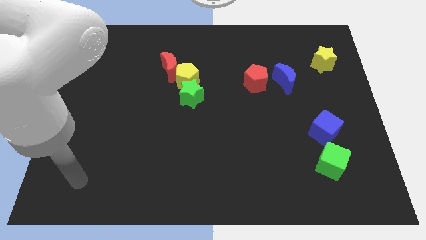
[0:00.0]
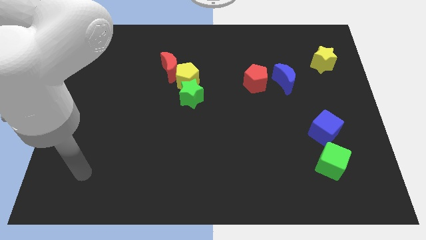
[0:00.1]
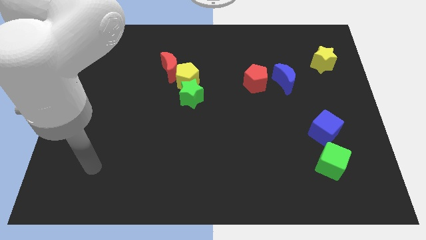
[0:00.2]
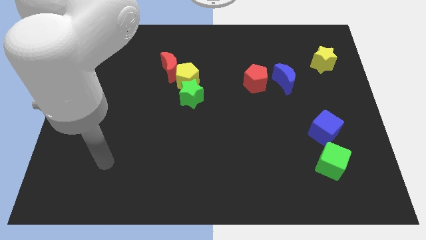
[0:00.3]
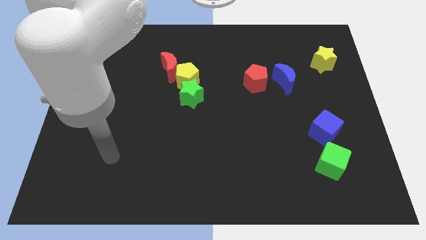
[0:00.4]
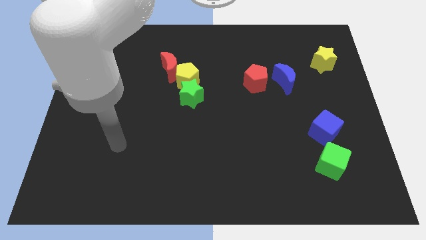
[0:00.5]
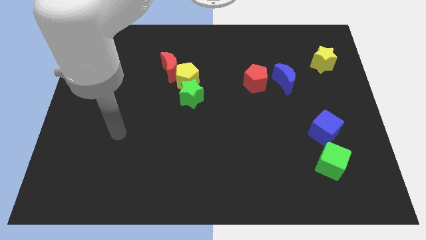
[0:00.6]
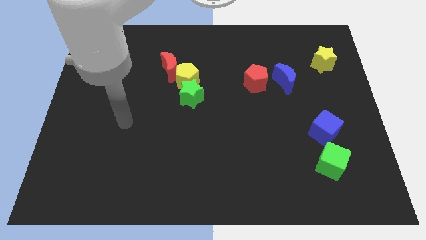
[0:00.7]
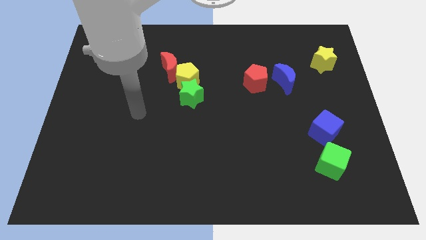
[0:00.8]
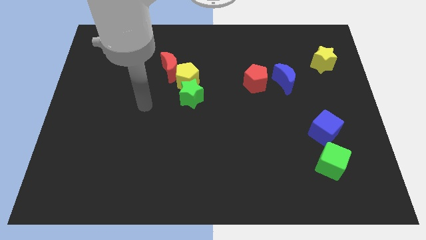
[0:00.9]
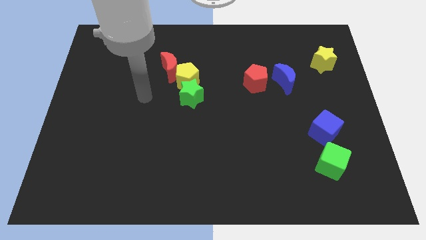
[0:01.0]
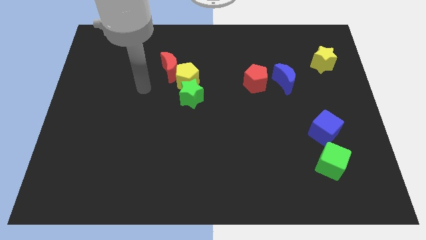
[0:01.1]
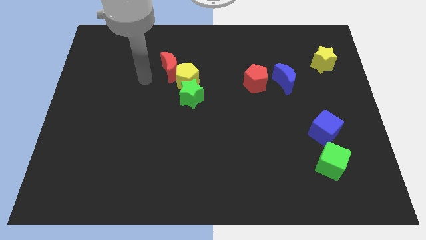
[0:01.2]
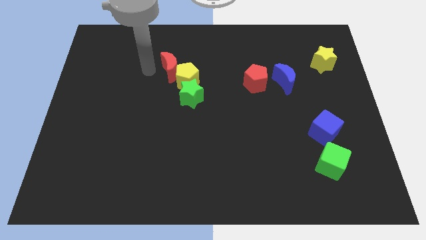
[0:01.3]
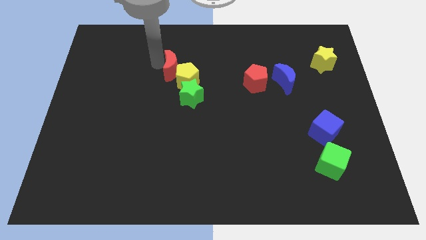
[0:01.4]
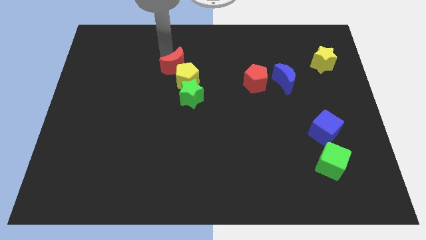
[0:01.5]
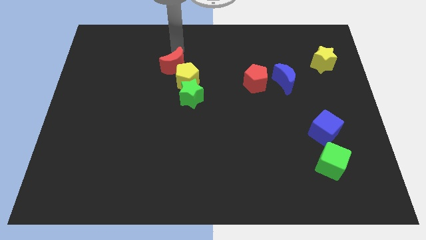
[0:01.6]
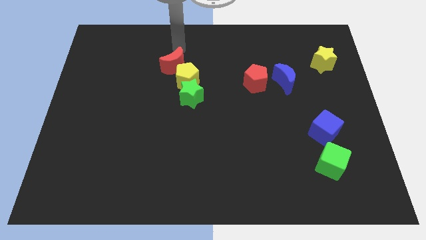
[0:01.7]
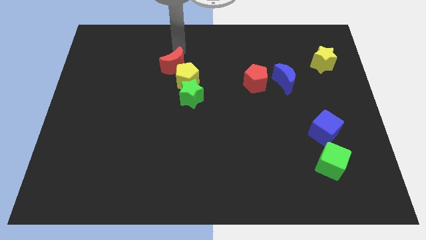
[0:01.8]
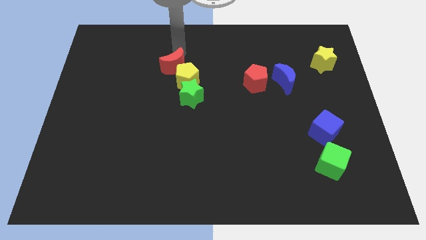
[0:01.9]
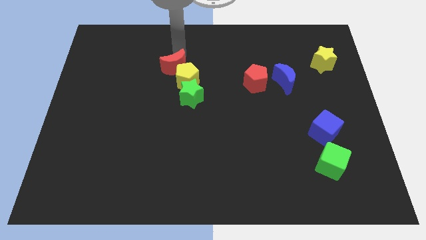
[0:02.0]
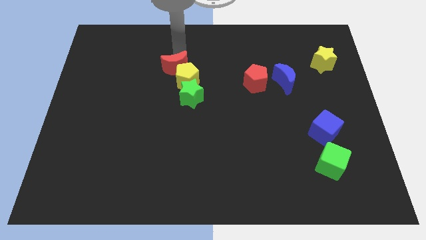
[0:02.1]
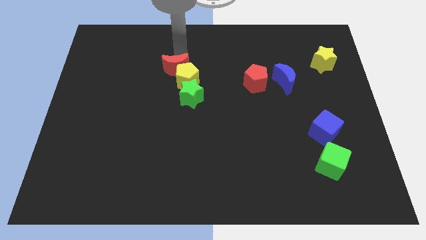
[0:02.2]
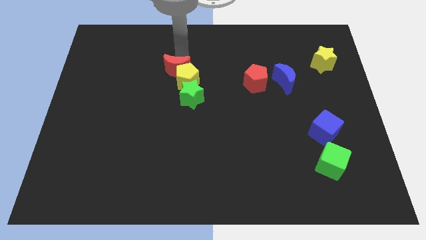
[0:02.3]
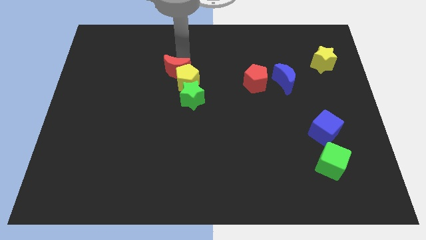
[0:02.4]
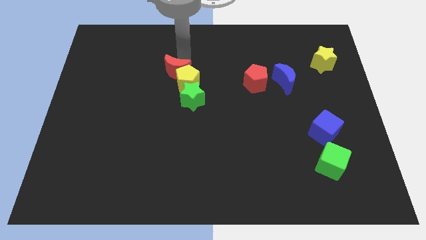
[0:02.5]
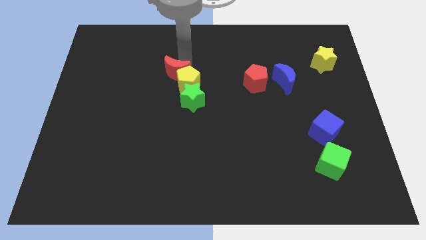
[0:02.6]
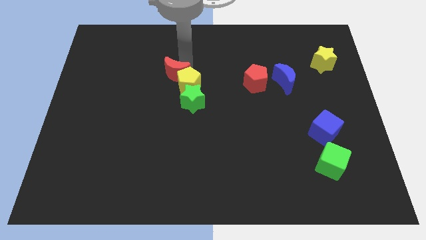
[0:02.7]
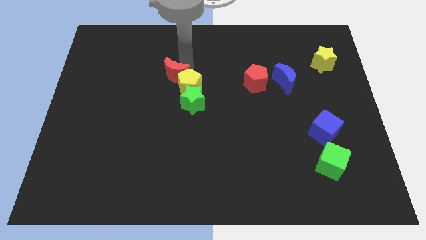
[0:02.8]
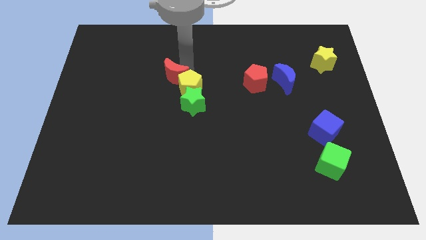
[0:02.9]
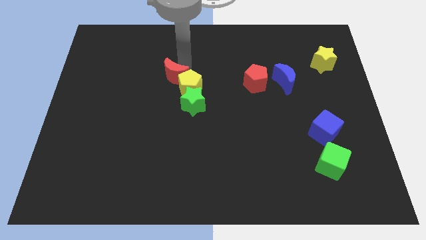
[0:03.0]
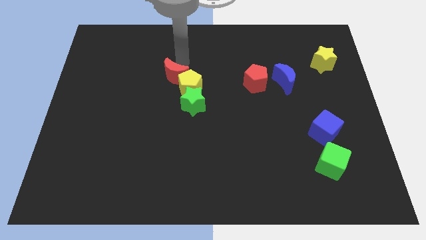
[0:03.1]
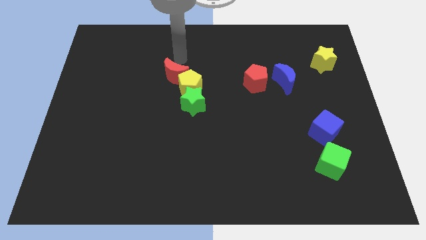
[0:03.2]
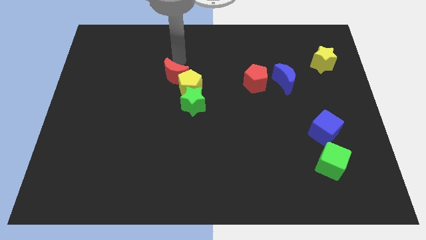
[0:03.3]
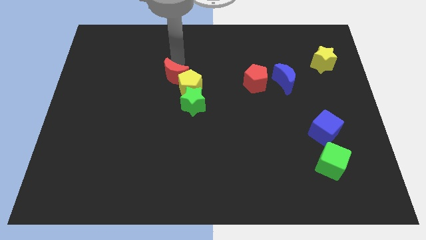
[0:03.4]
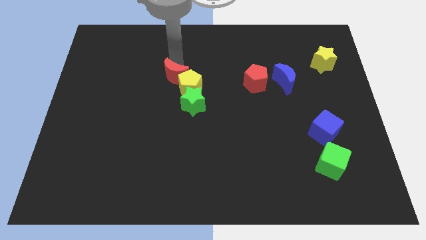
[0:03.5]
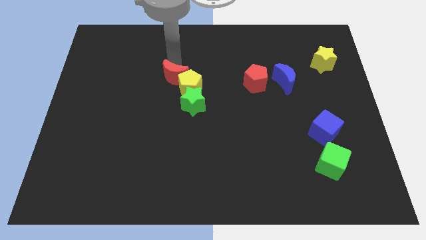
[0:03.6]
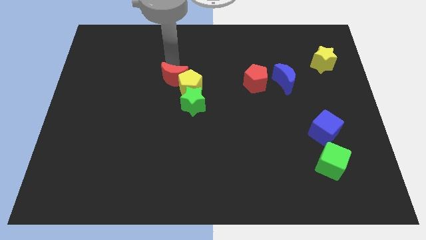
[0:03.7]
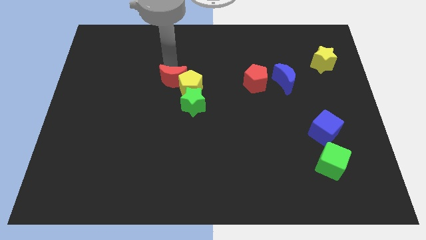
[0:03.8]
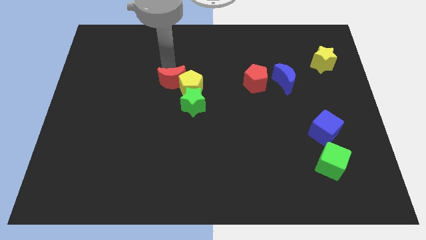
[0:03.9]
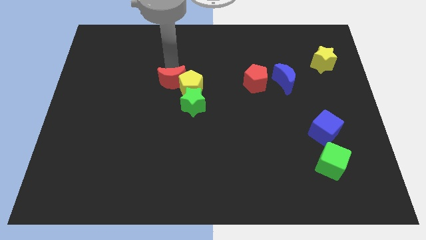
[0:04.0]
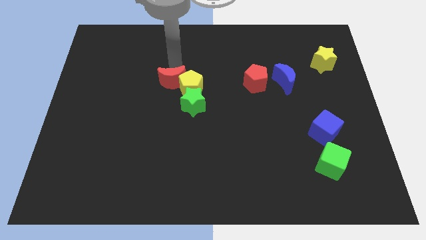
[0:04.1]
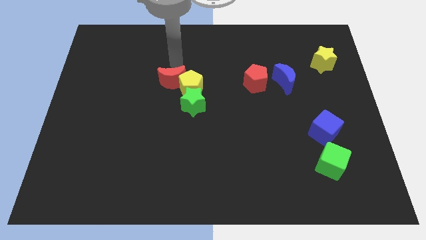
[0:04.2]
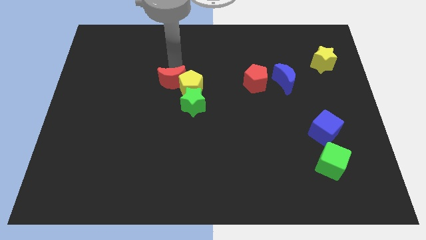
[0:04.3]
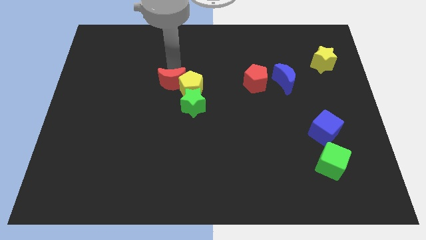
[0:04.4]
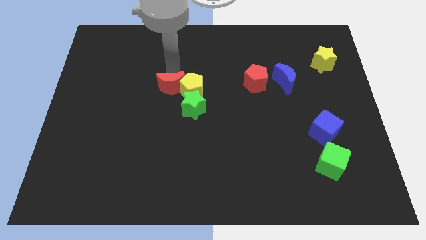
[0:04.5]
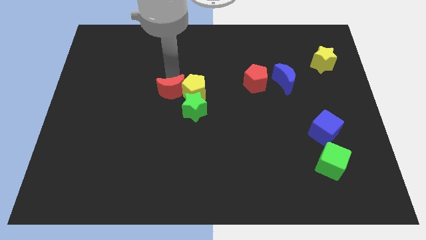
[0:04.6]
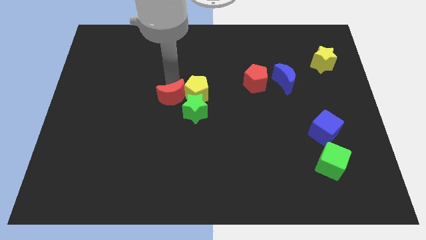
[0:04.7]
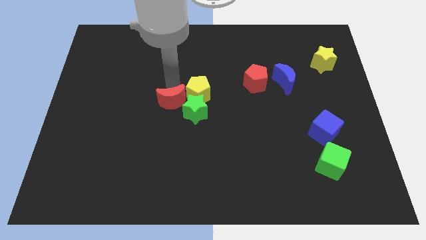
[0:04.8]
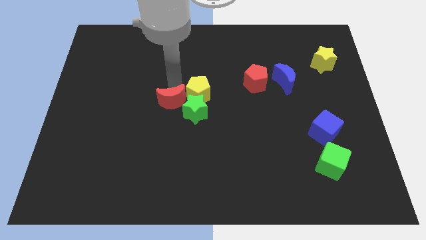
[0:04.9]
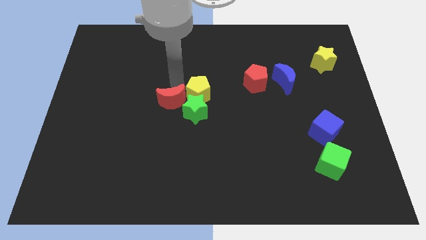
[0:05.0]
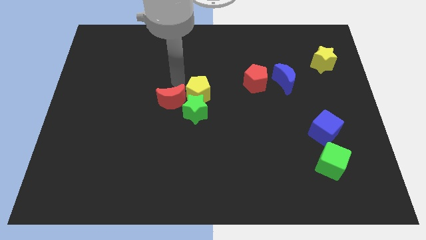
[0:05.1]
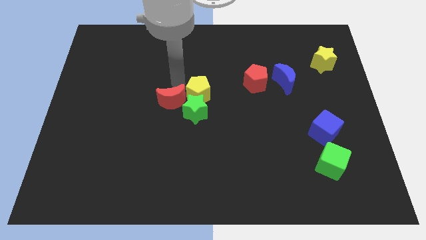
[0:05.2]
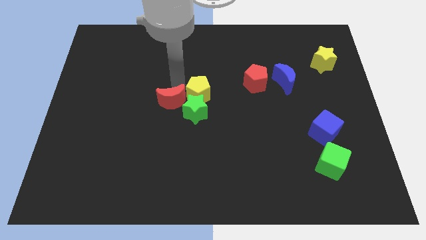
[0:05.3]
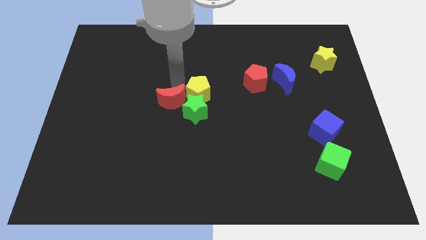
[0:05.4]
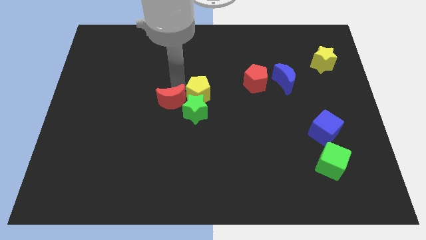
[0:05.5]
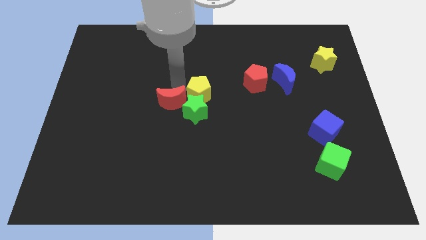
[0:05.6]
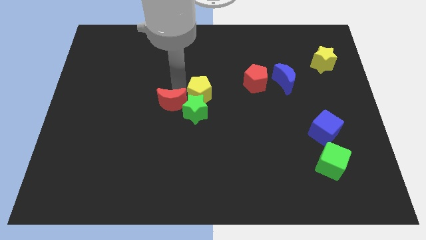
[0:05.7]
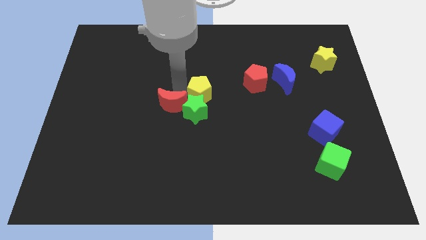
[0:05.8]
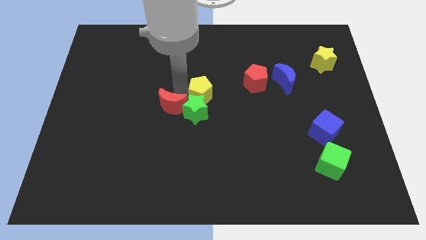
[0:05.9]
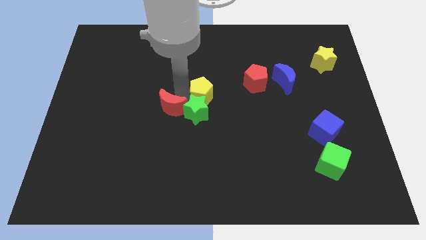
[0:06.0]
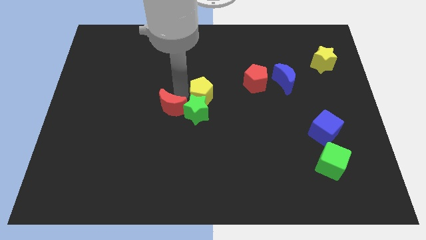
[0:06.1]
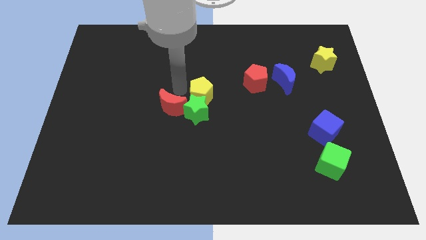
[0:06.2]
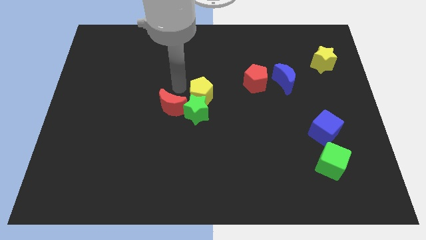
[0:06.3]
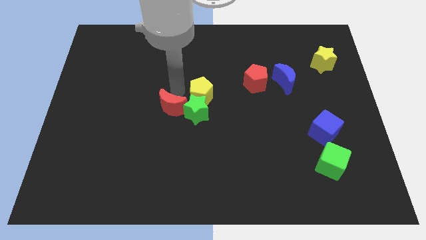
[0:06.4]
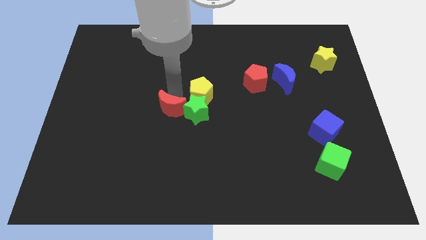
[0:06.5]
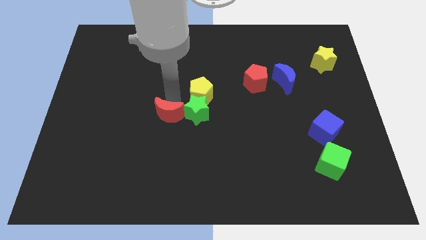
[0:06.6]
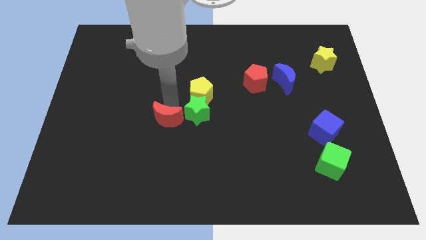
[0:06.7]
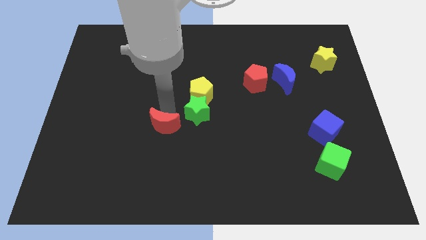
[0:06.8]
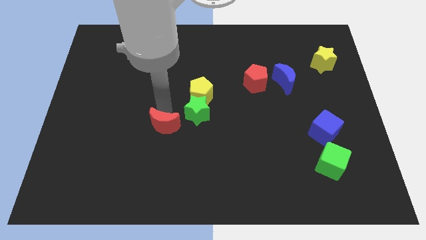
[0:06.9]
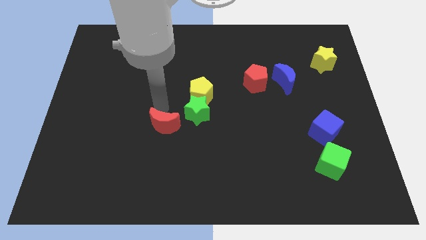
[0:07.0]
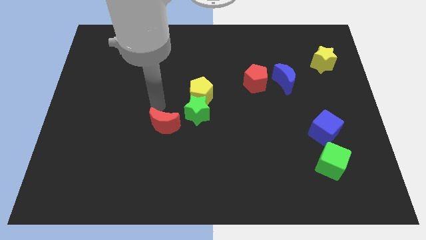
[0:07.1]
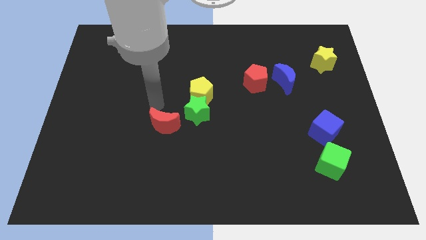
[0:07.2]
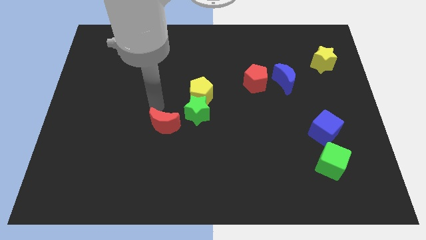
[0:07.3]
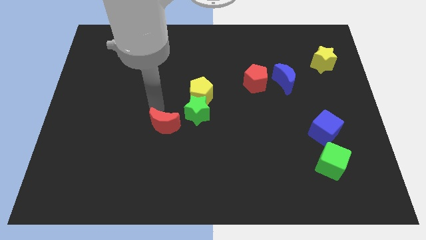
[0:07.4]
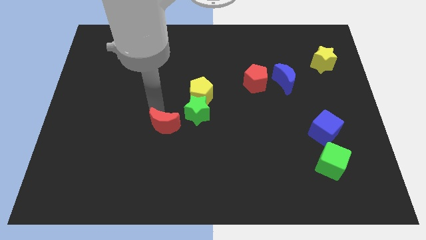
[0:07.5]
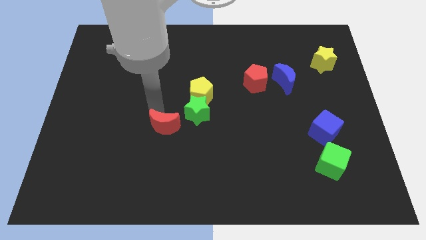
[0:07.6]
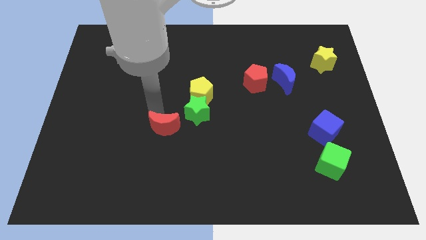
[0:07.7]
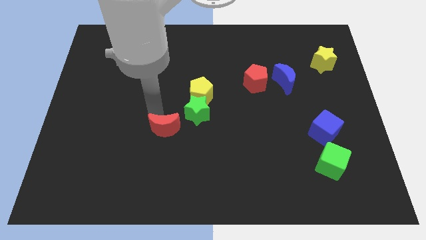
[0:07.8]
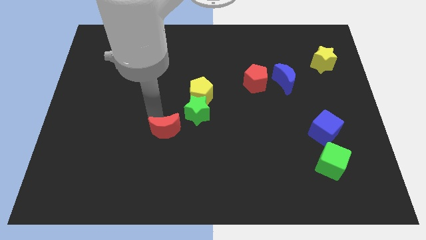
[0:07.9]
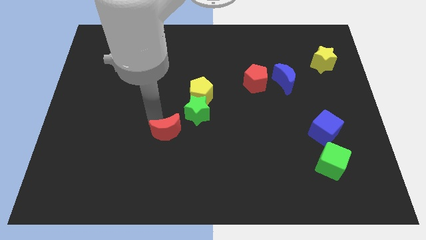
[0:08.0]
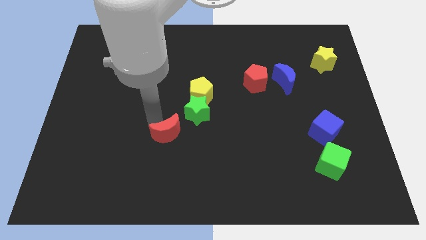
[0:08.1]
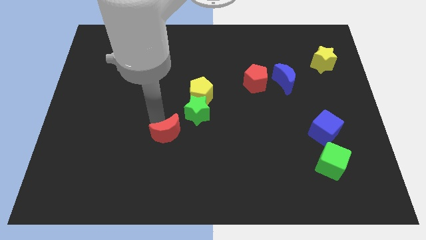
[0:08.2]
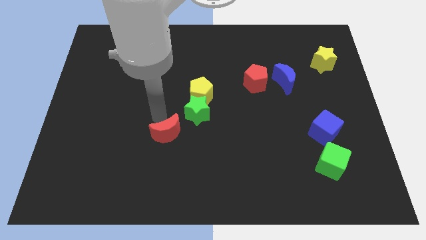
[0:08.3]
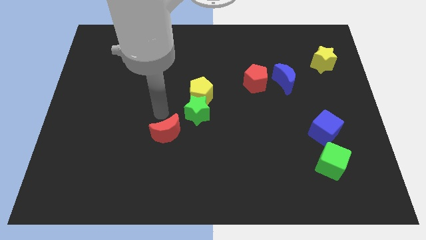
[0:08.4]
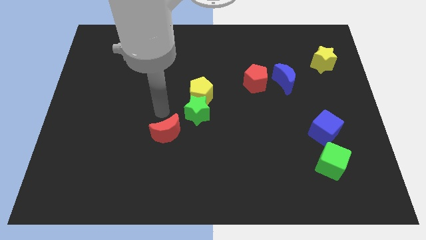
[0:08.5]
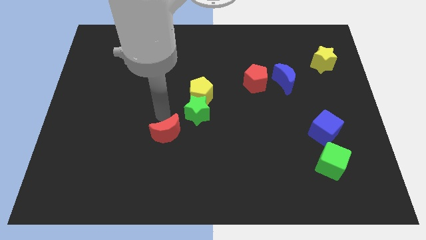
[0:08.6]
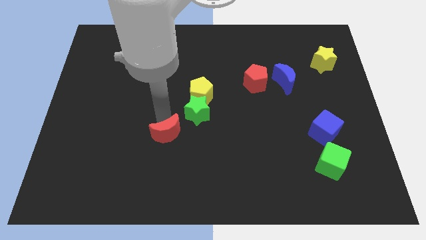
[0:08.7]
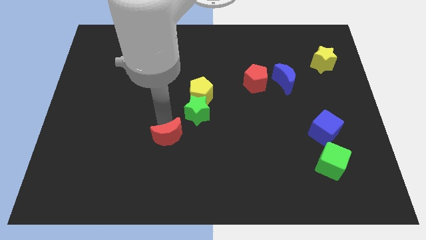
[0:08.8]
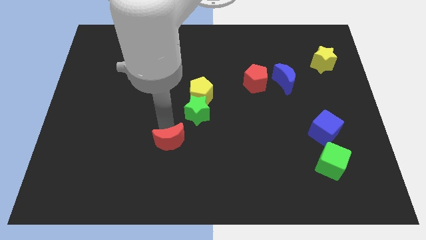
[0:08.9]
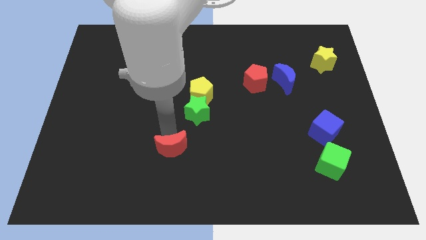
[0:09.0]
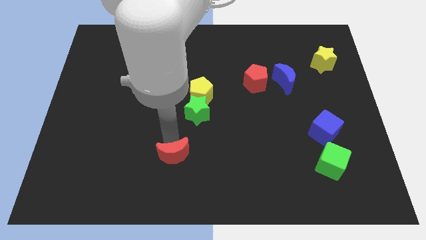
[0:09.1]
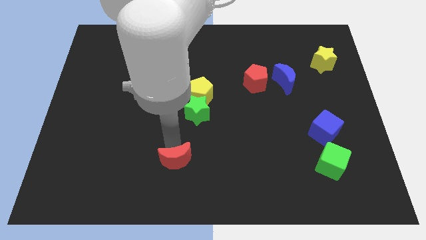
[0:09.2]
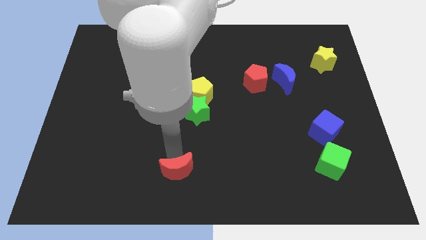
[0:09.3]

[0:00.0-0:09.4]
push the red moon to the bottom side
